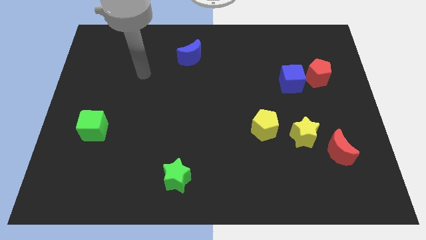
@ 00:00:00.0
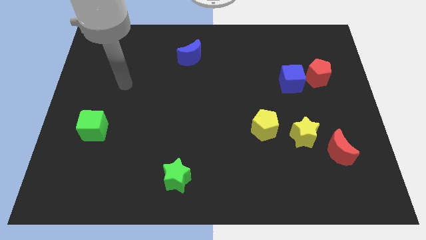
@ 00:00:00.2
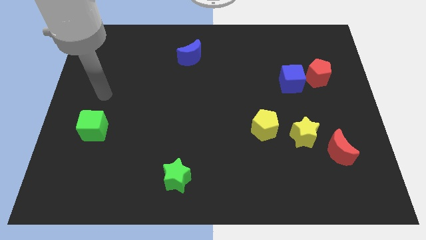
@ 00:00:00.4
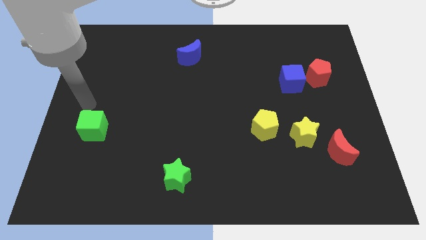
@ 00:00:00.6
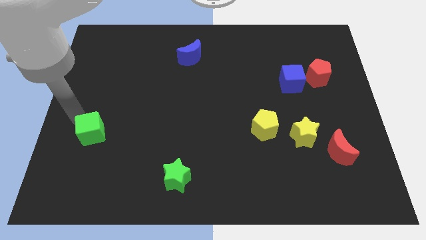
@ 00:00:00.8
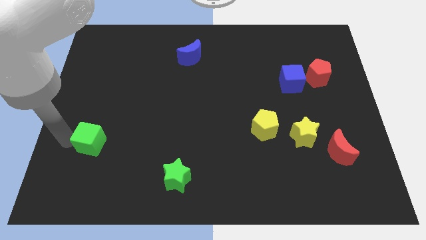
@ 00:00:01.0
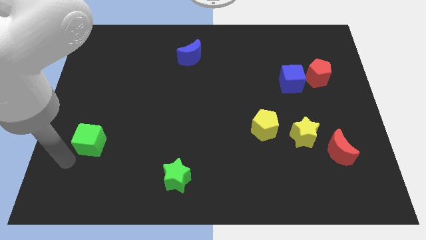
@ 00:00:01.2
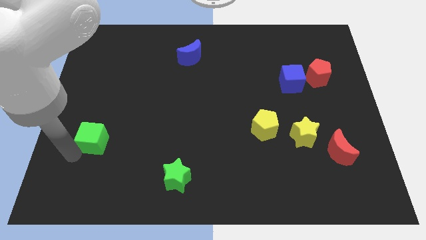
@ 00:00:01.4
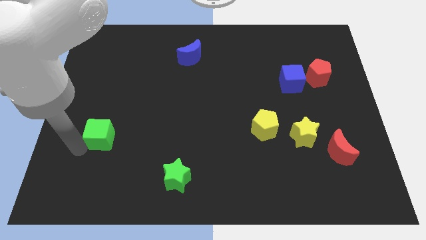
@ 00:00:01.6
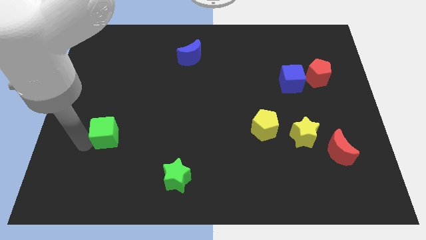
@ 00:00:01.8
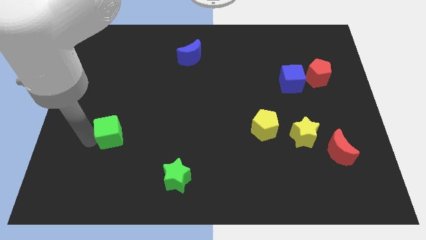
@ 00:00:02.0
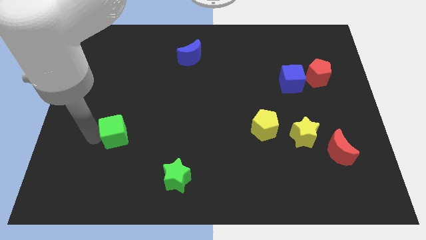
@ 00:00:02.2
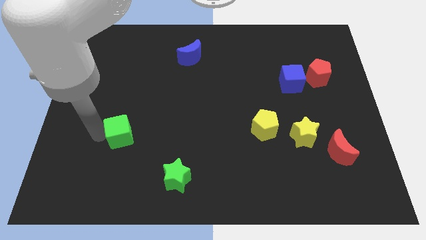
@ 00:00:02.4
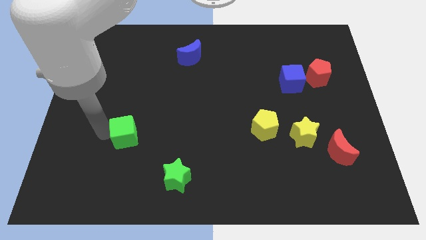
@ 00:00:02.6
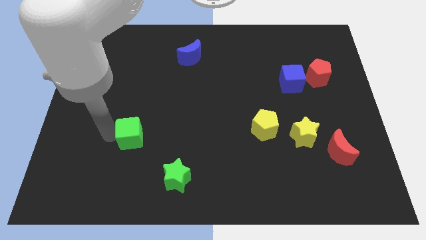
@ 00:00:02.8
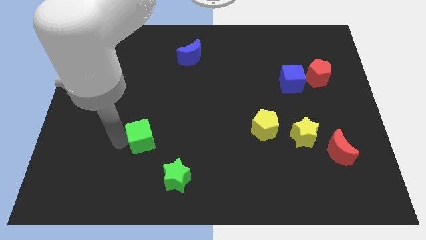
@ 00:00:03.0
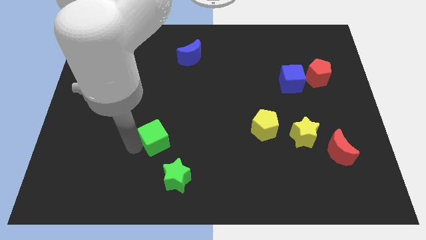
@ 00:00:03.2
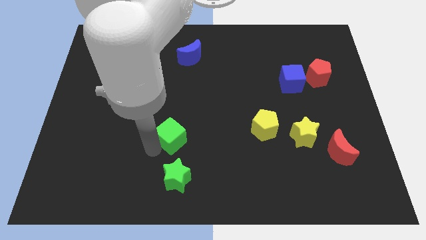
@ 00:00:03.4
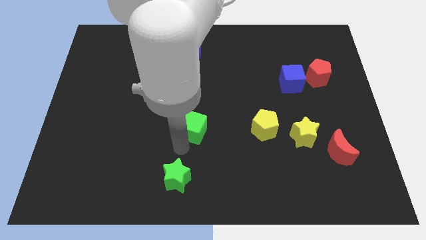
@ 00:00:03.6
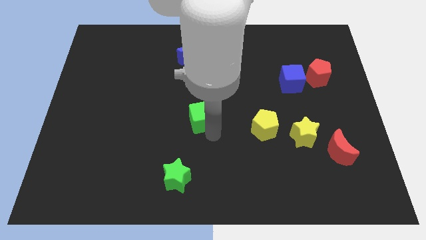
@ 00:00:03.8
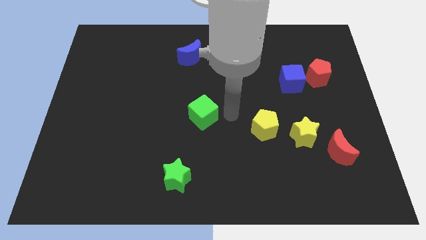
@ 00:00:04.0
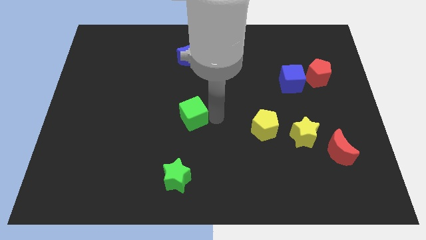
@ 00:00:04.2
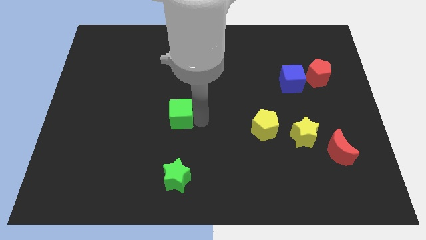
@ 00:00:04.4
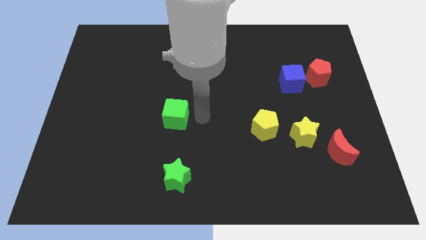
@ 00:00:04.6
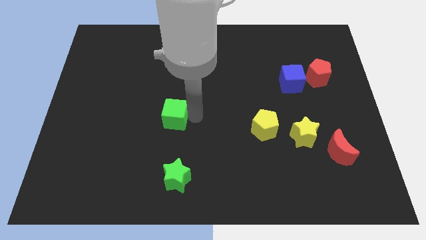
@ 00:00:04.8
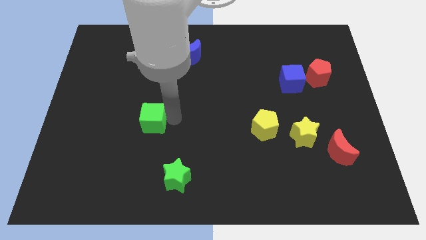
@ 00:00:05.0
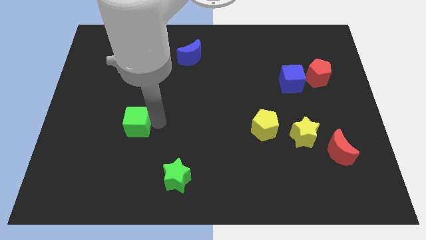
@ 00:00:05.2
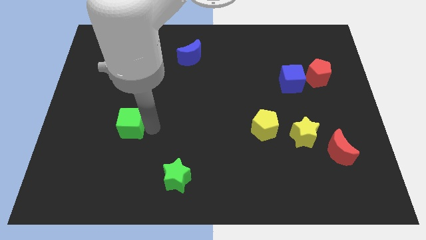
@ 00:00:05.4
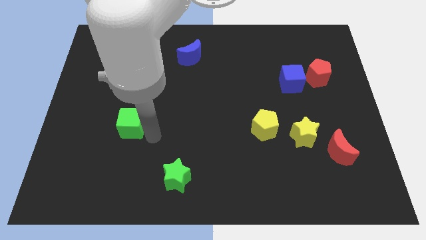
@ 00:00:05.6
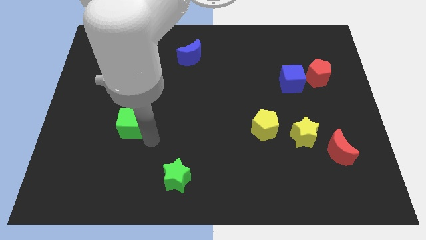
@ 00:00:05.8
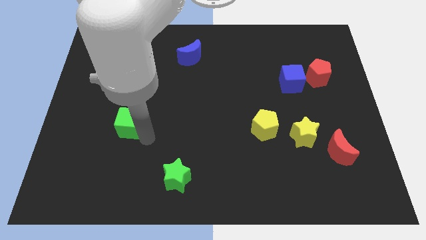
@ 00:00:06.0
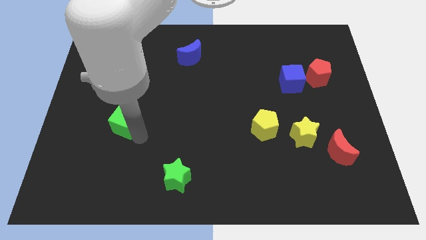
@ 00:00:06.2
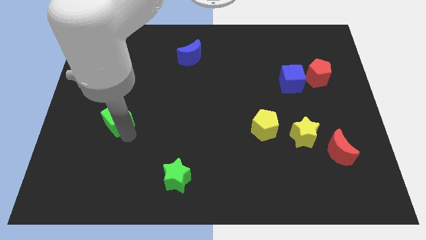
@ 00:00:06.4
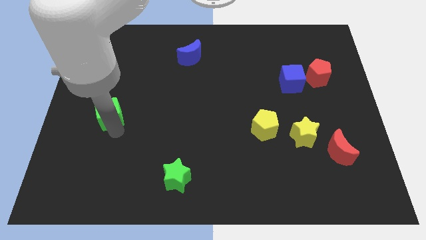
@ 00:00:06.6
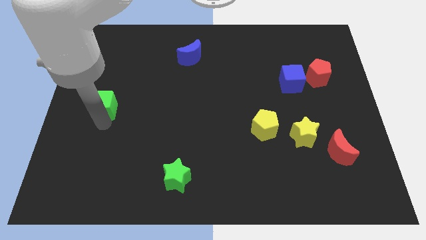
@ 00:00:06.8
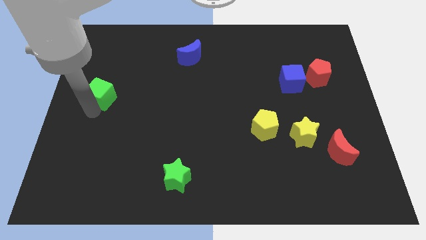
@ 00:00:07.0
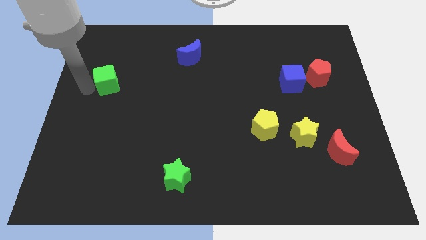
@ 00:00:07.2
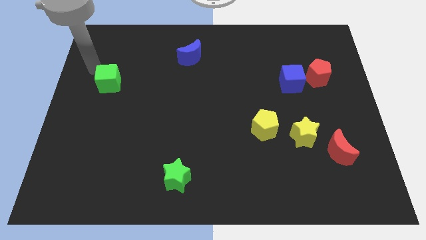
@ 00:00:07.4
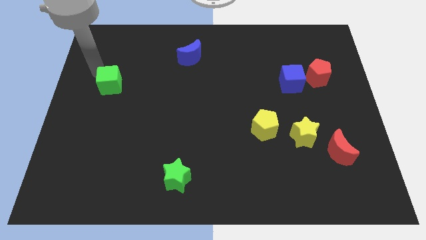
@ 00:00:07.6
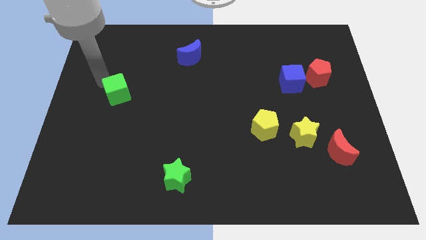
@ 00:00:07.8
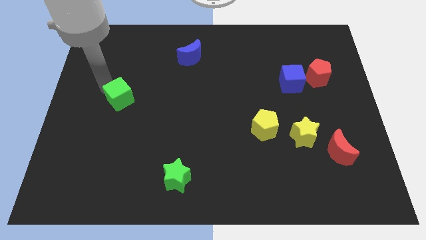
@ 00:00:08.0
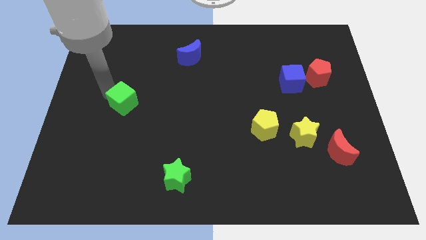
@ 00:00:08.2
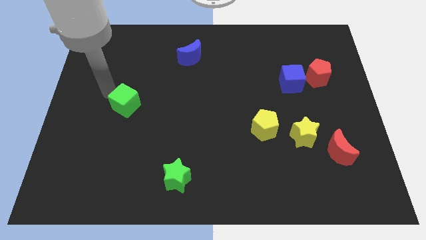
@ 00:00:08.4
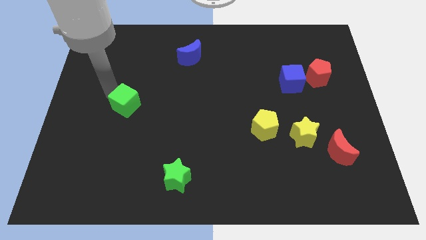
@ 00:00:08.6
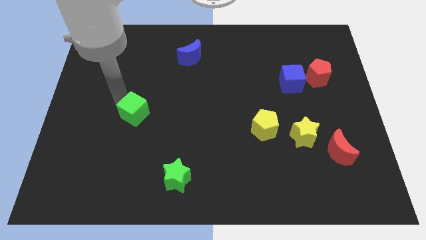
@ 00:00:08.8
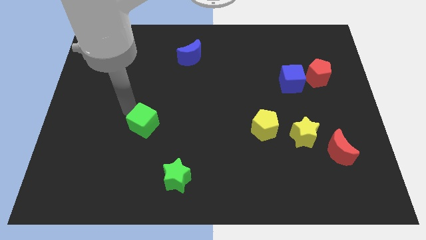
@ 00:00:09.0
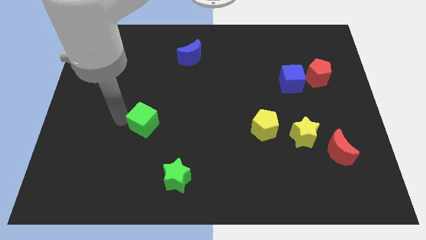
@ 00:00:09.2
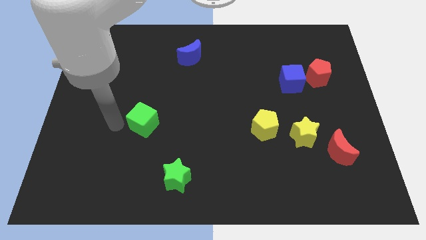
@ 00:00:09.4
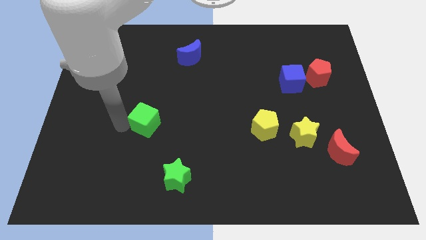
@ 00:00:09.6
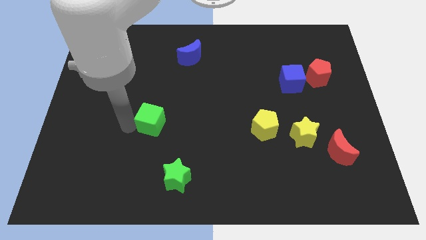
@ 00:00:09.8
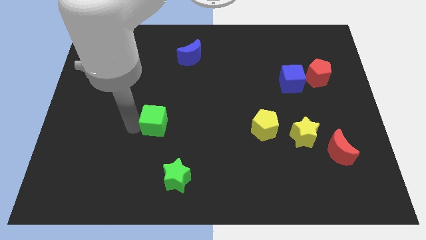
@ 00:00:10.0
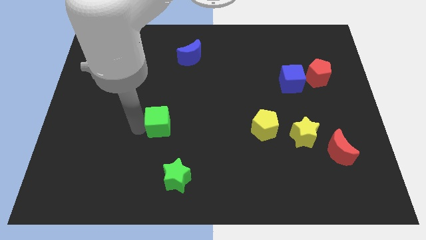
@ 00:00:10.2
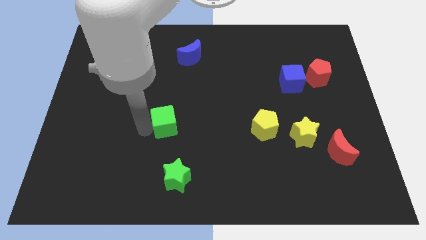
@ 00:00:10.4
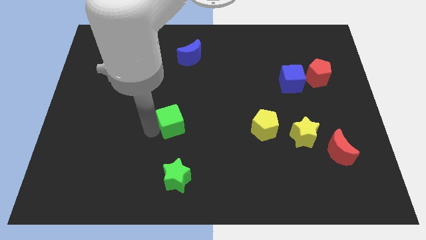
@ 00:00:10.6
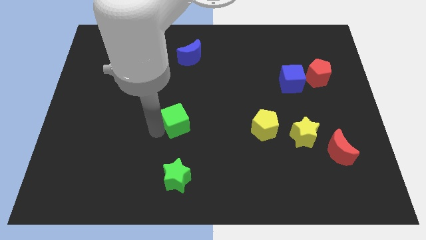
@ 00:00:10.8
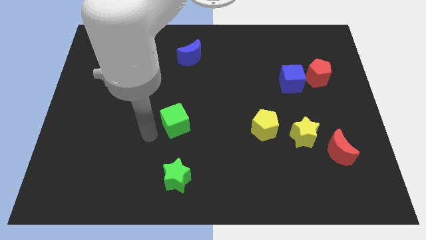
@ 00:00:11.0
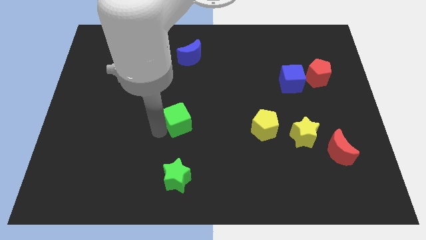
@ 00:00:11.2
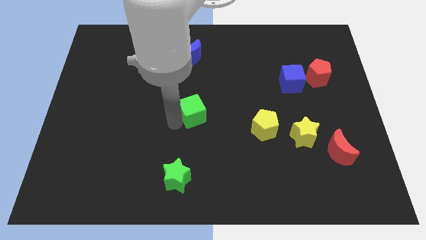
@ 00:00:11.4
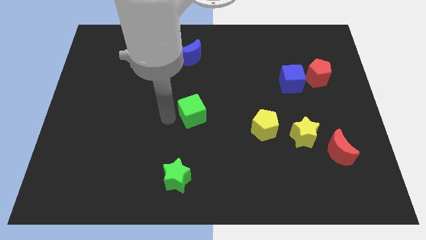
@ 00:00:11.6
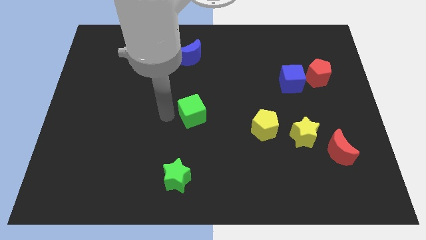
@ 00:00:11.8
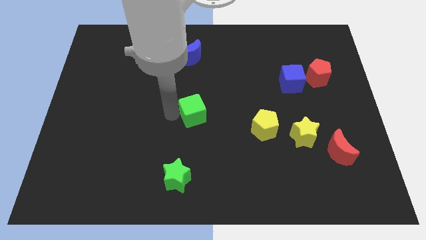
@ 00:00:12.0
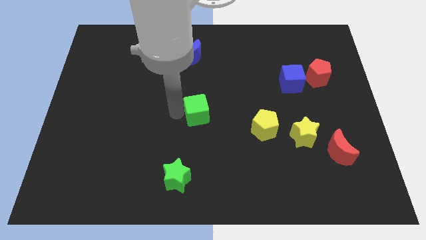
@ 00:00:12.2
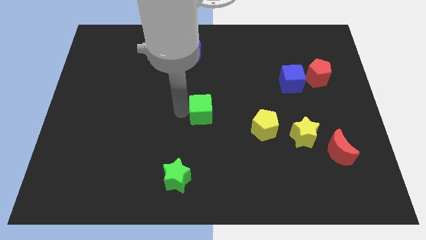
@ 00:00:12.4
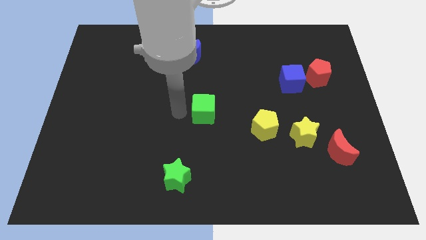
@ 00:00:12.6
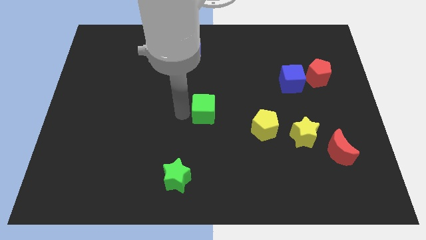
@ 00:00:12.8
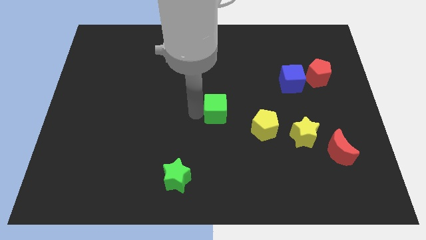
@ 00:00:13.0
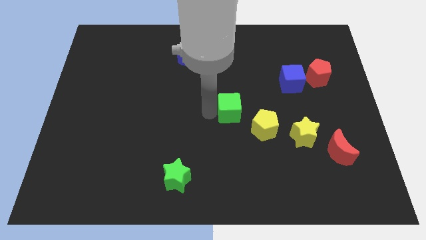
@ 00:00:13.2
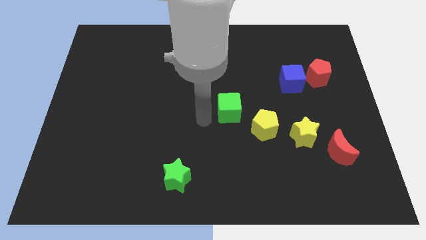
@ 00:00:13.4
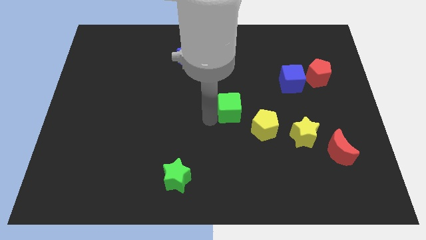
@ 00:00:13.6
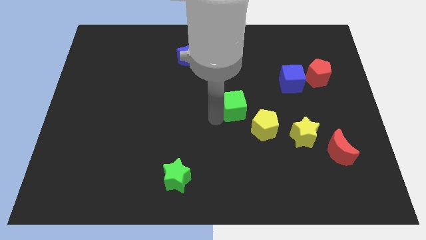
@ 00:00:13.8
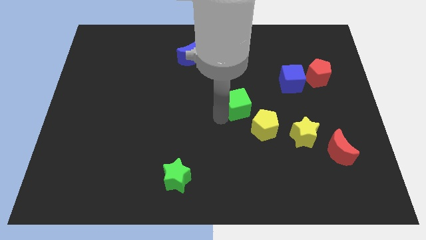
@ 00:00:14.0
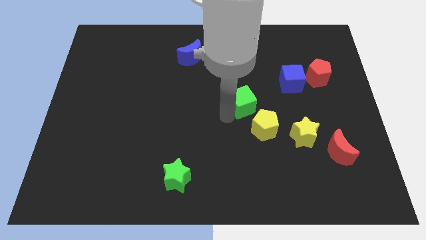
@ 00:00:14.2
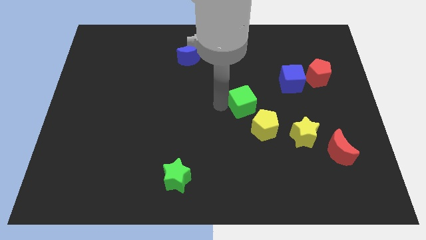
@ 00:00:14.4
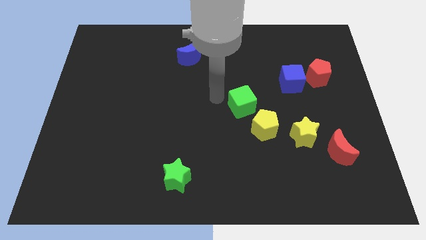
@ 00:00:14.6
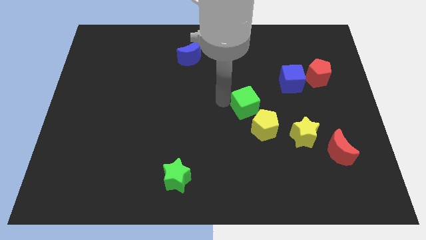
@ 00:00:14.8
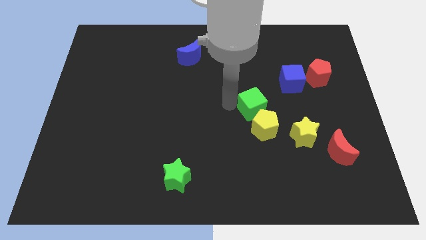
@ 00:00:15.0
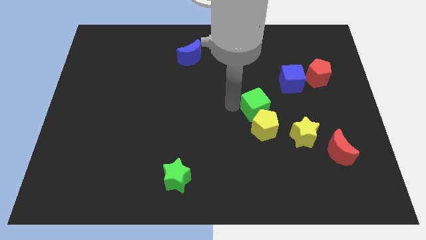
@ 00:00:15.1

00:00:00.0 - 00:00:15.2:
put the green cube to the top left side of the yellow star
